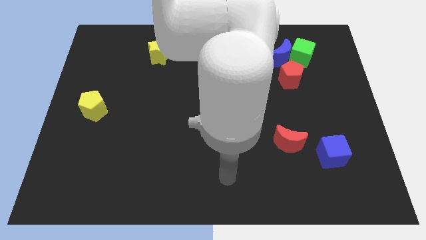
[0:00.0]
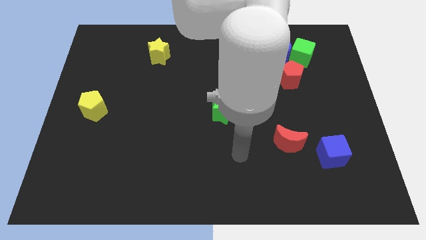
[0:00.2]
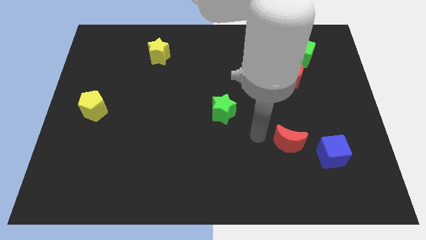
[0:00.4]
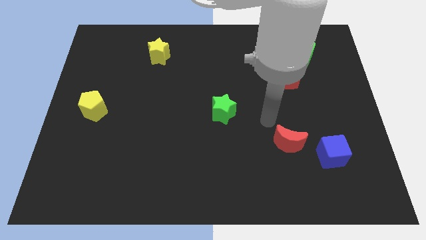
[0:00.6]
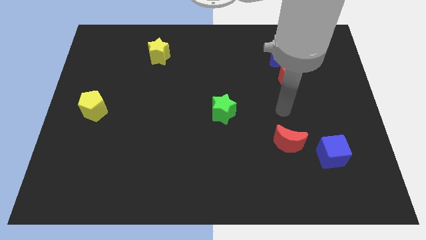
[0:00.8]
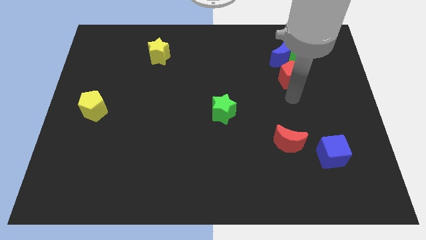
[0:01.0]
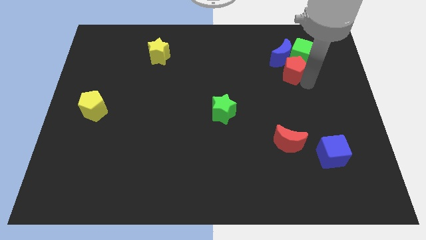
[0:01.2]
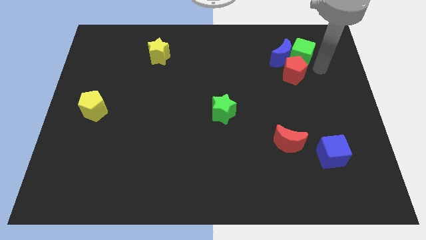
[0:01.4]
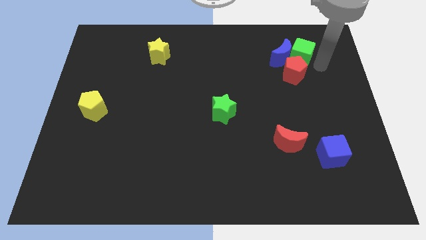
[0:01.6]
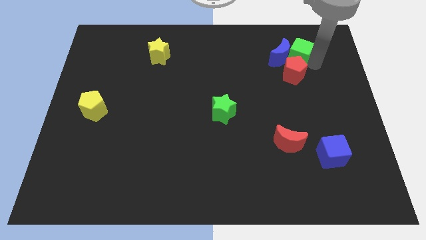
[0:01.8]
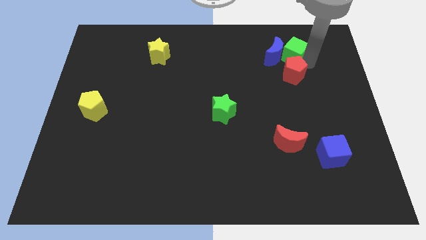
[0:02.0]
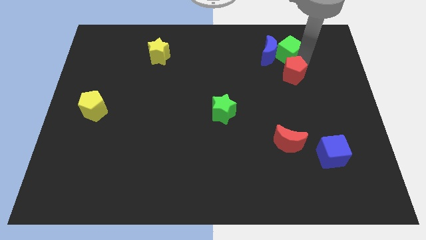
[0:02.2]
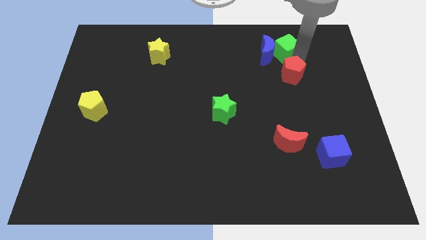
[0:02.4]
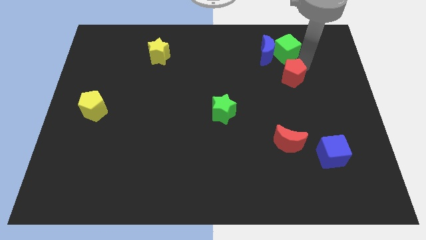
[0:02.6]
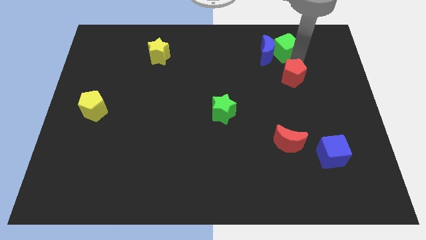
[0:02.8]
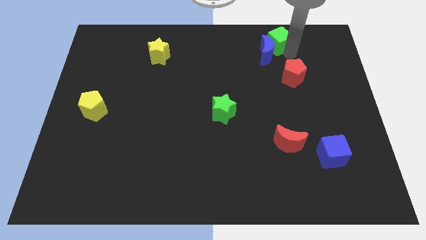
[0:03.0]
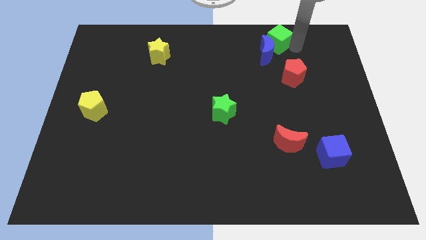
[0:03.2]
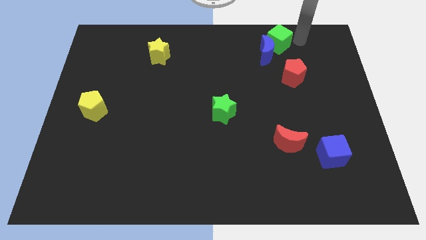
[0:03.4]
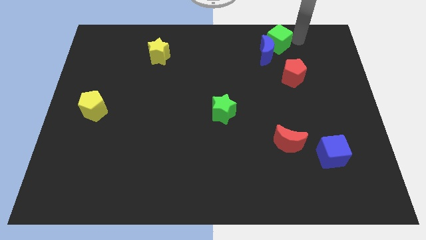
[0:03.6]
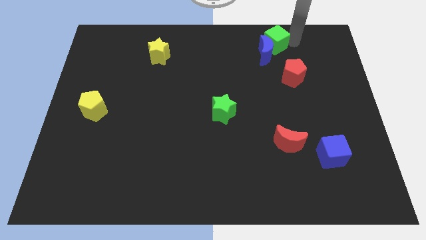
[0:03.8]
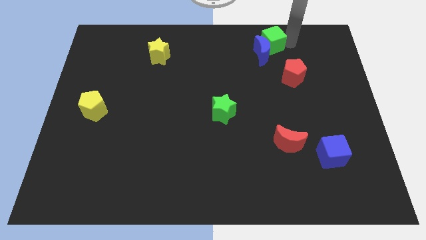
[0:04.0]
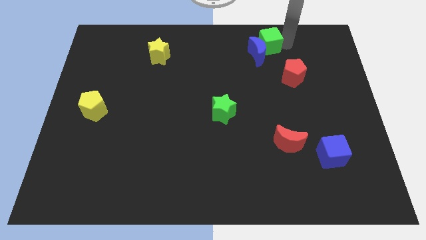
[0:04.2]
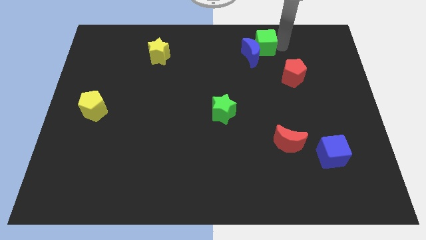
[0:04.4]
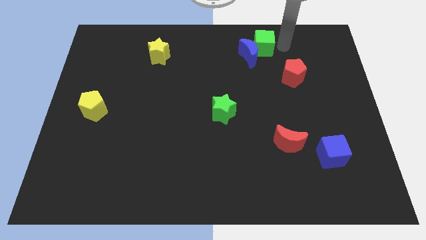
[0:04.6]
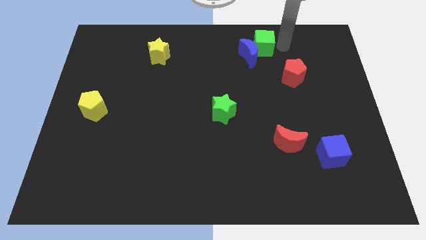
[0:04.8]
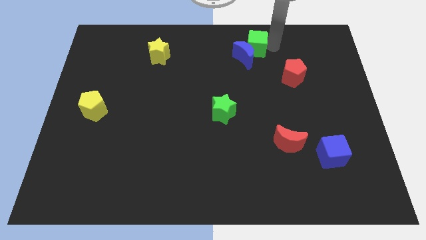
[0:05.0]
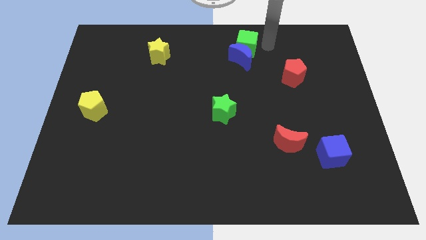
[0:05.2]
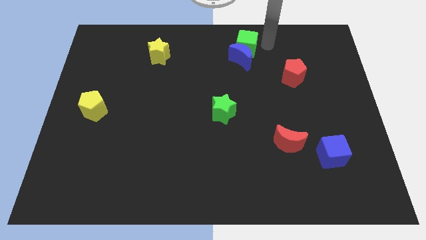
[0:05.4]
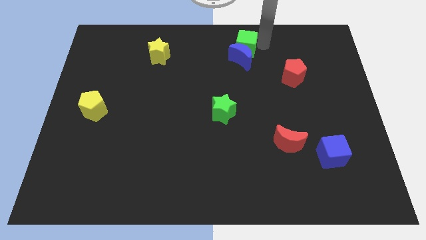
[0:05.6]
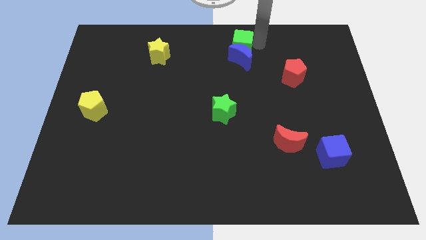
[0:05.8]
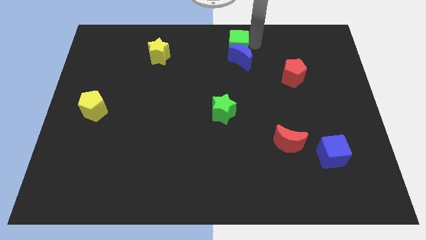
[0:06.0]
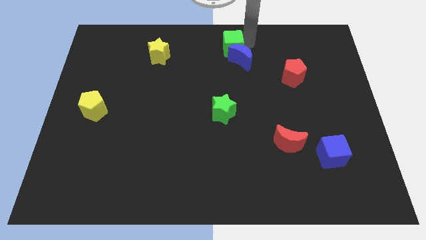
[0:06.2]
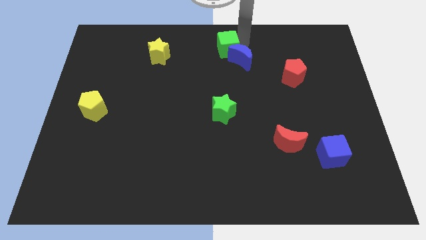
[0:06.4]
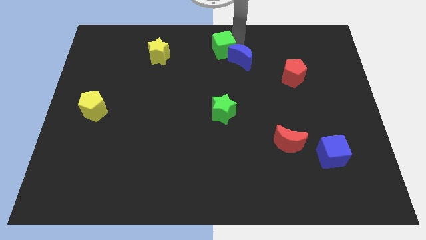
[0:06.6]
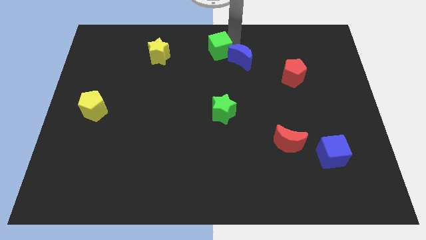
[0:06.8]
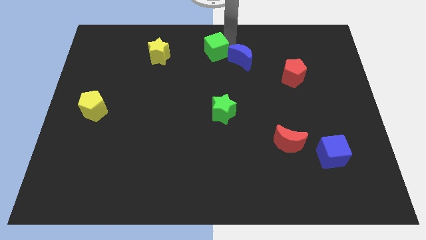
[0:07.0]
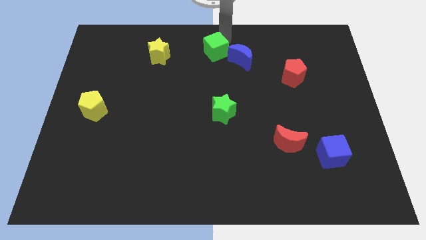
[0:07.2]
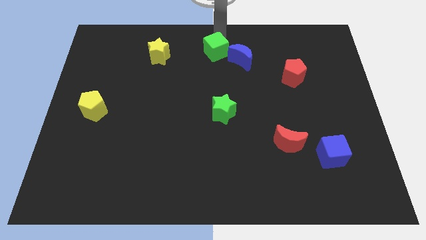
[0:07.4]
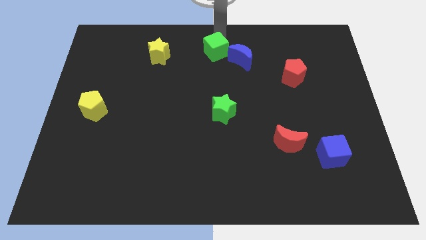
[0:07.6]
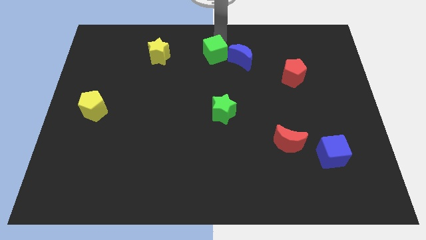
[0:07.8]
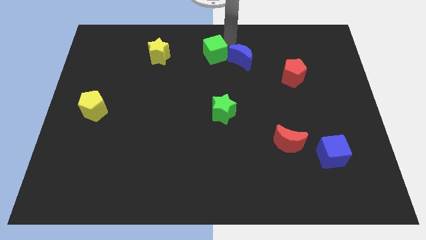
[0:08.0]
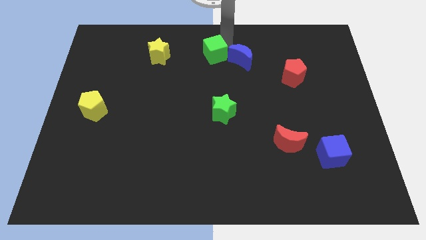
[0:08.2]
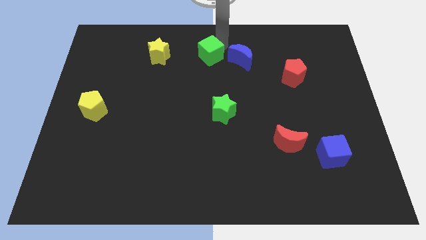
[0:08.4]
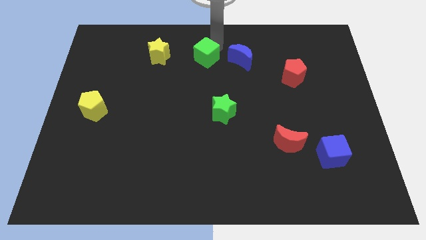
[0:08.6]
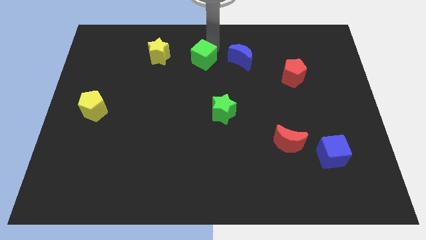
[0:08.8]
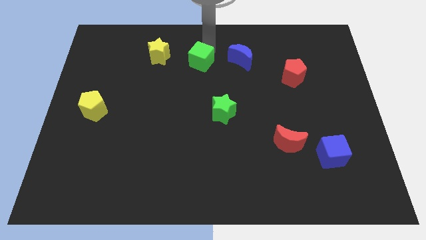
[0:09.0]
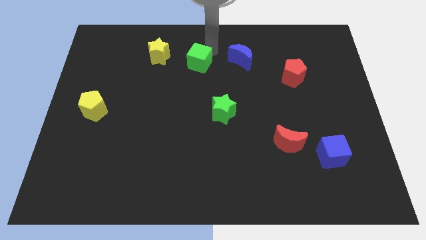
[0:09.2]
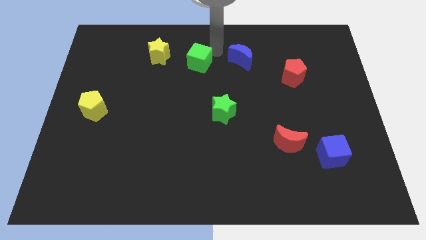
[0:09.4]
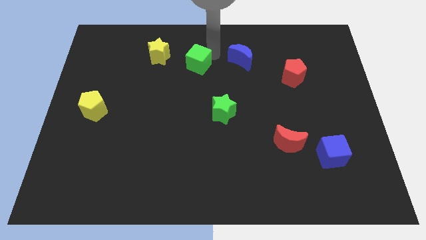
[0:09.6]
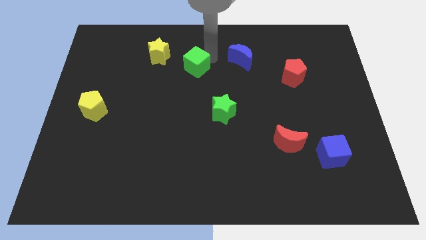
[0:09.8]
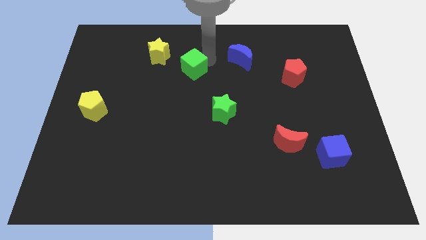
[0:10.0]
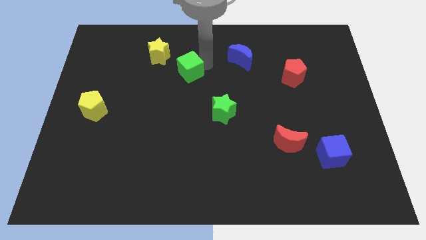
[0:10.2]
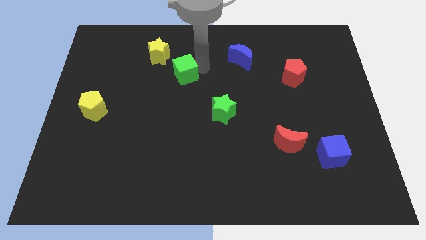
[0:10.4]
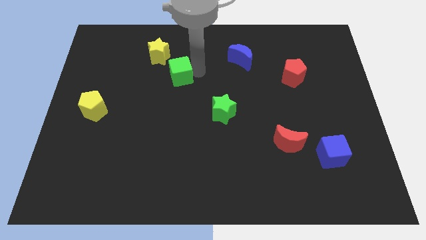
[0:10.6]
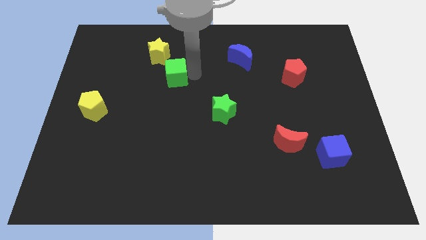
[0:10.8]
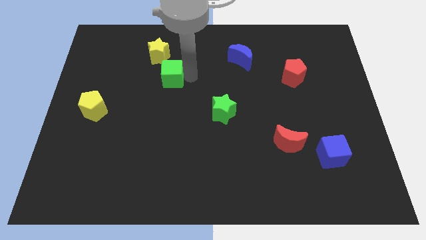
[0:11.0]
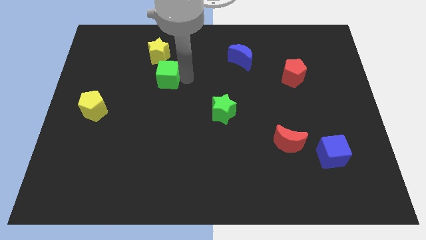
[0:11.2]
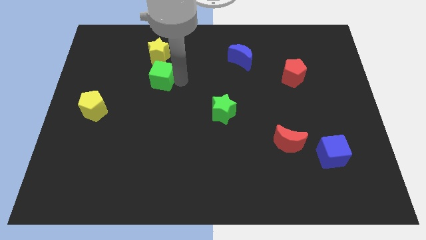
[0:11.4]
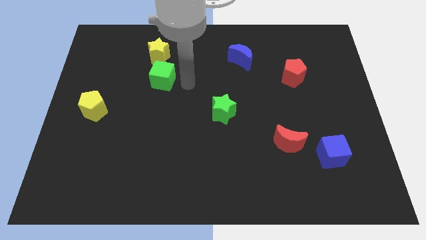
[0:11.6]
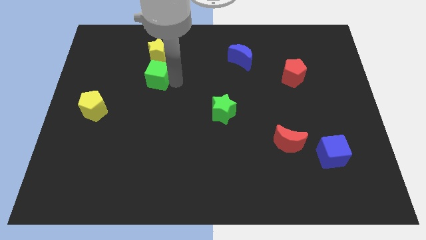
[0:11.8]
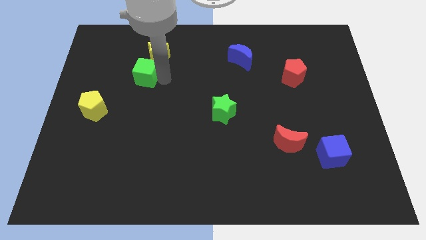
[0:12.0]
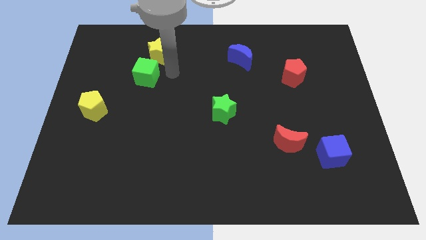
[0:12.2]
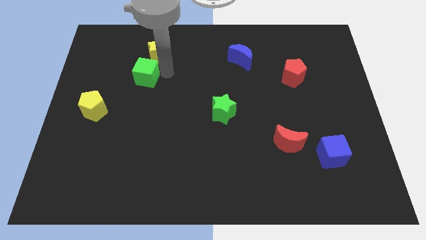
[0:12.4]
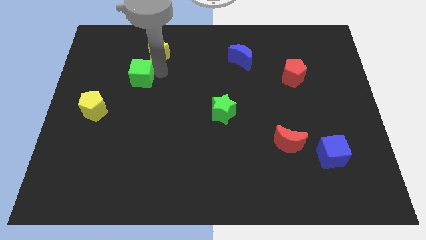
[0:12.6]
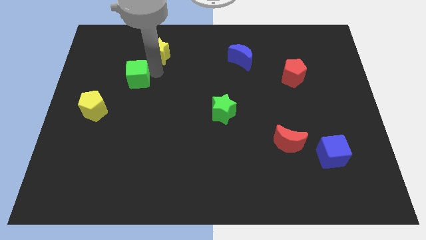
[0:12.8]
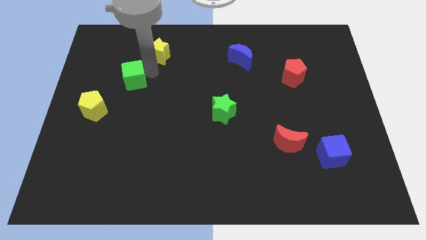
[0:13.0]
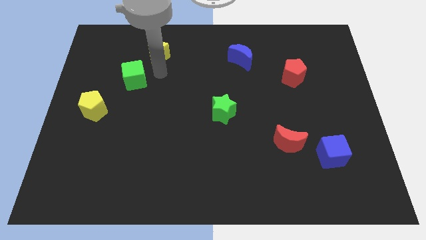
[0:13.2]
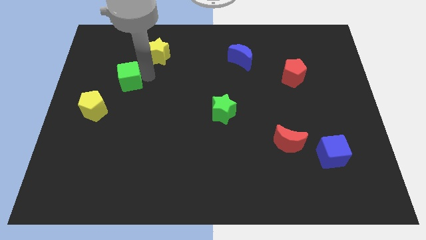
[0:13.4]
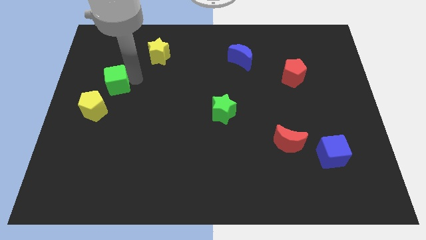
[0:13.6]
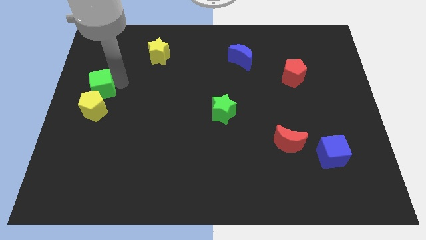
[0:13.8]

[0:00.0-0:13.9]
put the green cube to the left side
